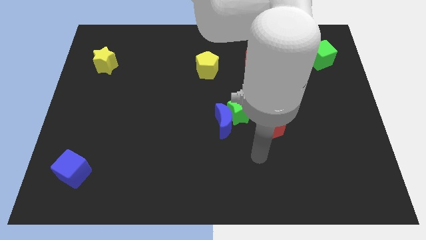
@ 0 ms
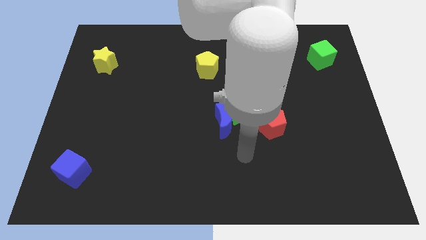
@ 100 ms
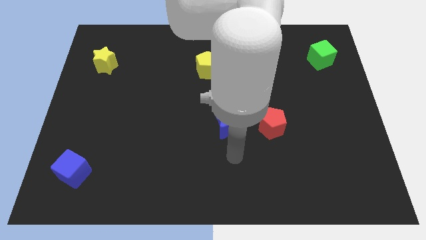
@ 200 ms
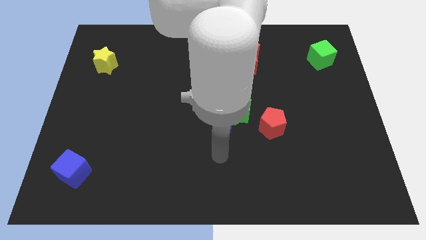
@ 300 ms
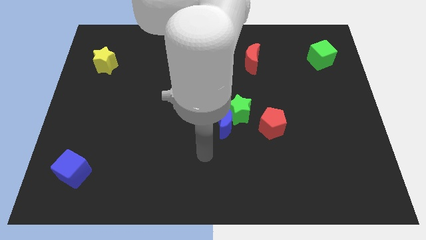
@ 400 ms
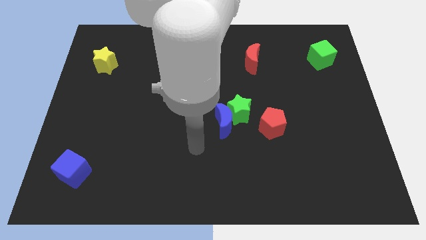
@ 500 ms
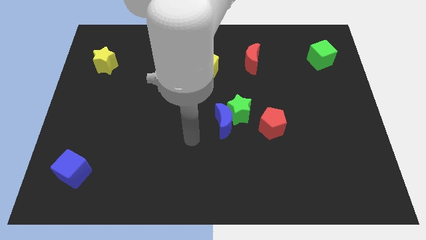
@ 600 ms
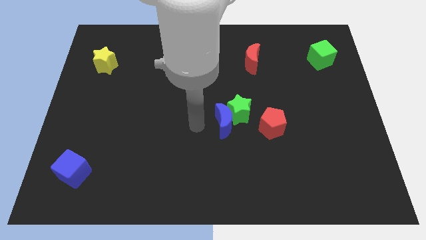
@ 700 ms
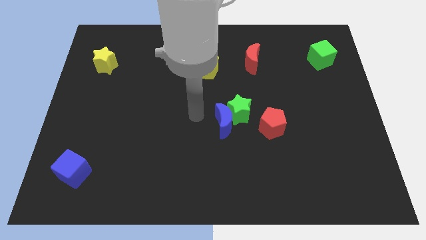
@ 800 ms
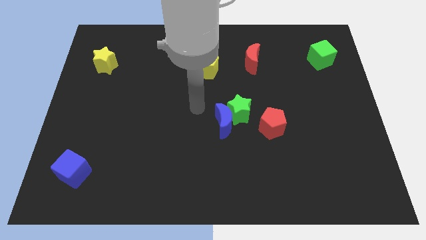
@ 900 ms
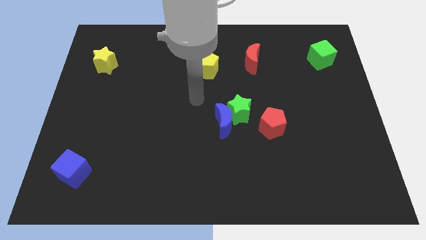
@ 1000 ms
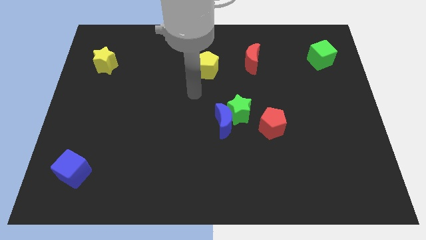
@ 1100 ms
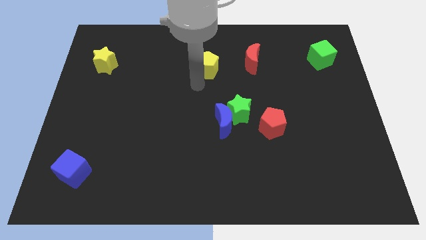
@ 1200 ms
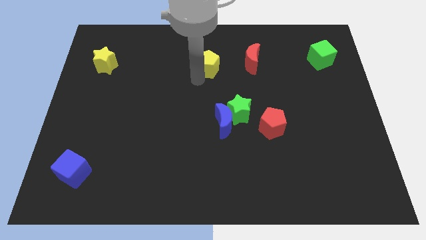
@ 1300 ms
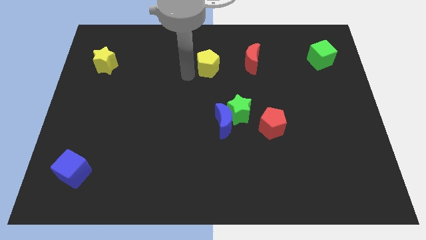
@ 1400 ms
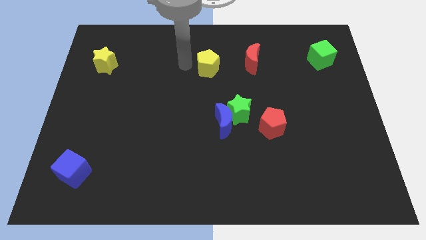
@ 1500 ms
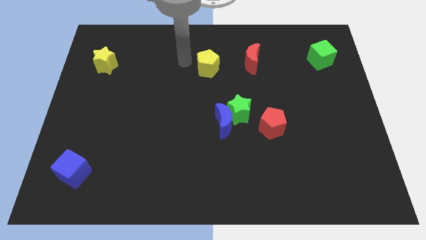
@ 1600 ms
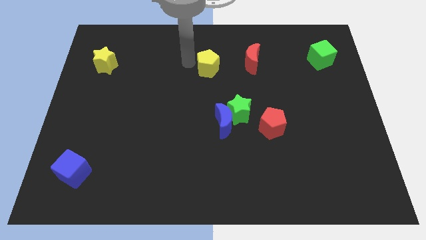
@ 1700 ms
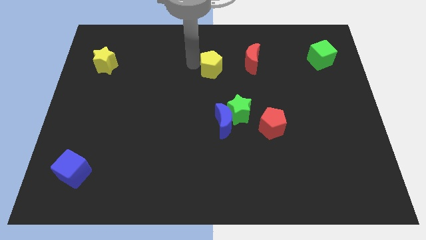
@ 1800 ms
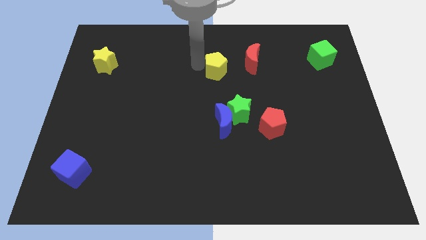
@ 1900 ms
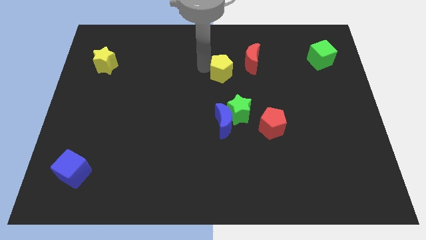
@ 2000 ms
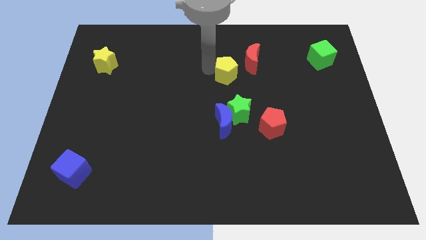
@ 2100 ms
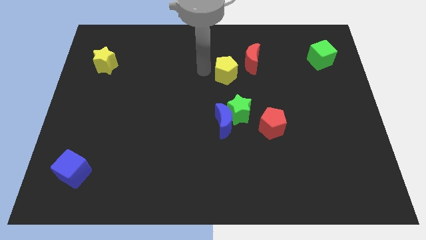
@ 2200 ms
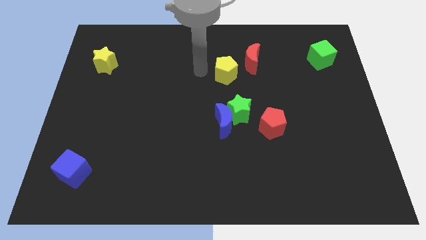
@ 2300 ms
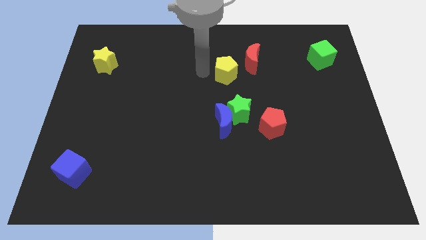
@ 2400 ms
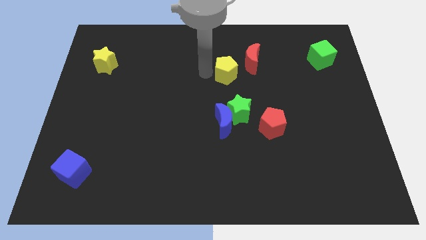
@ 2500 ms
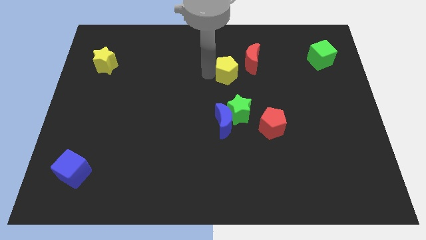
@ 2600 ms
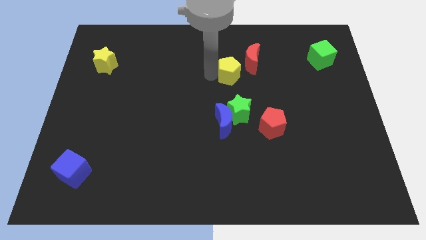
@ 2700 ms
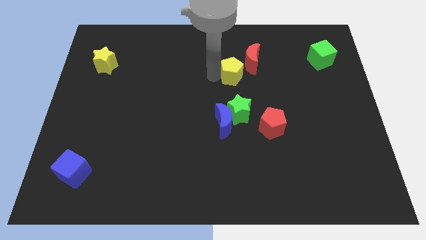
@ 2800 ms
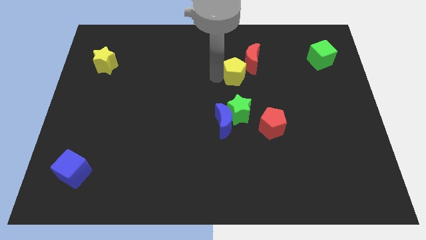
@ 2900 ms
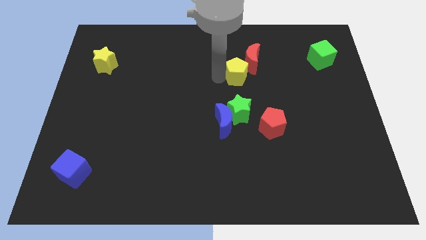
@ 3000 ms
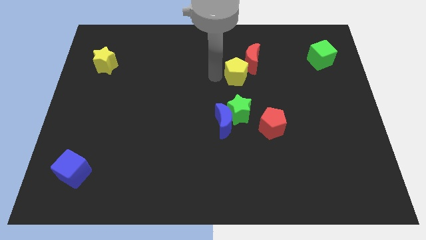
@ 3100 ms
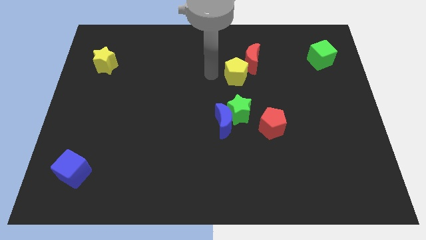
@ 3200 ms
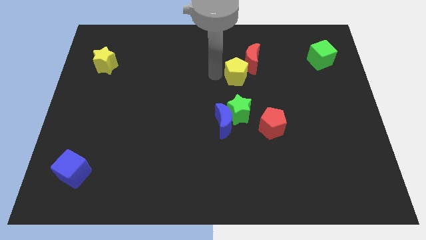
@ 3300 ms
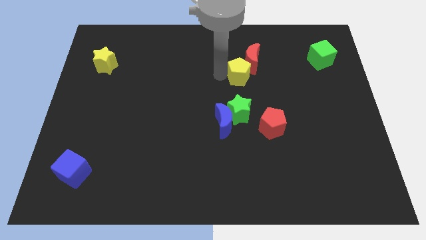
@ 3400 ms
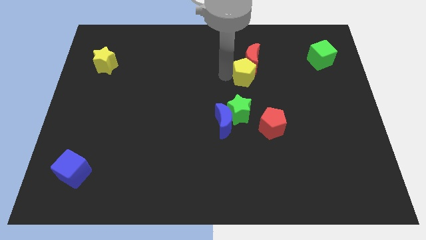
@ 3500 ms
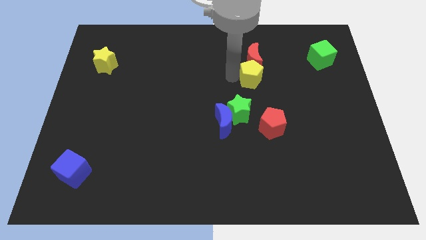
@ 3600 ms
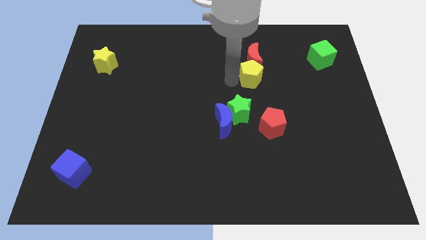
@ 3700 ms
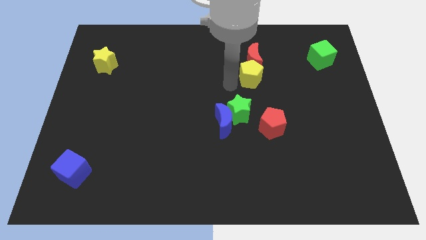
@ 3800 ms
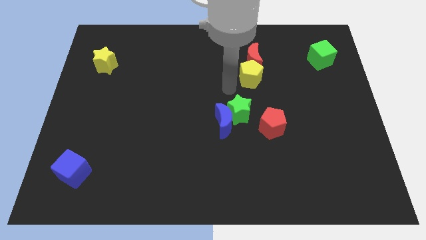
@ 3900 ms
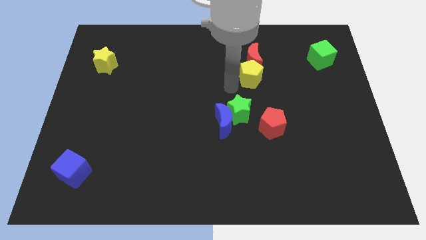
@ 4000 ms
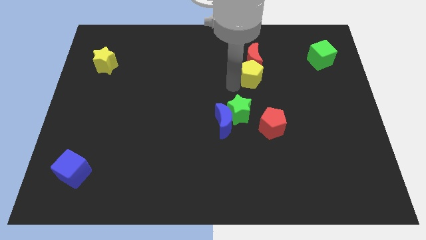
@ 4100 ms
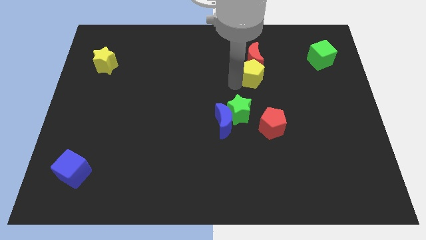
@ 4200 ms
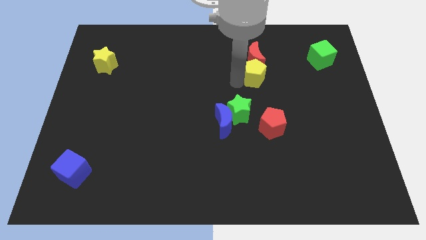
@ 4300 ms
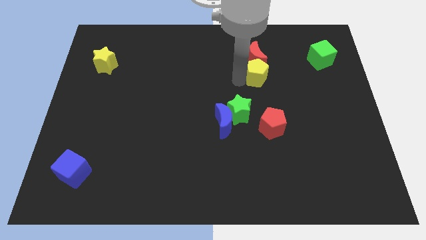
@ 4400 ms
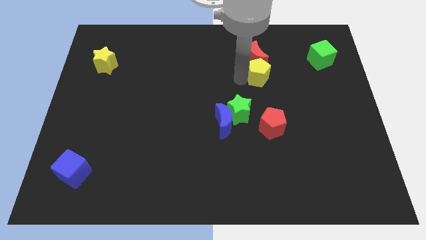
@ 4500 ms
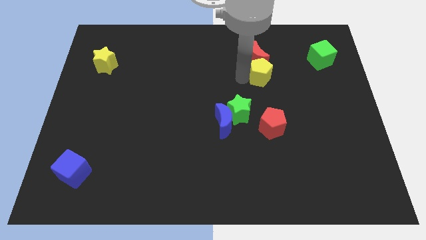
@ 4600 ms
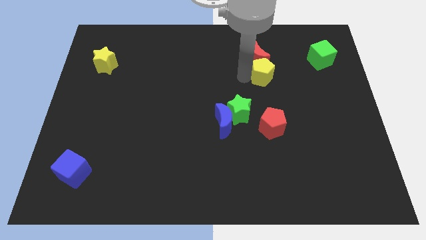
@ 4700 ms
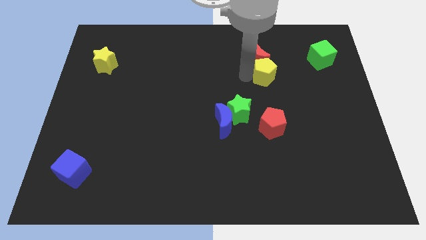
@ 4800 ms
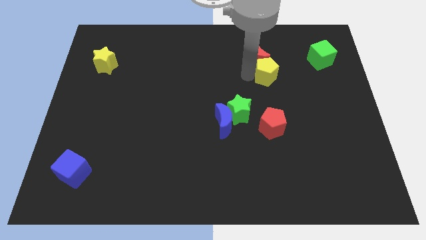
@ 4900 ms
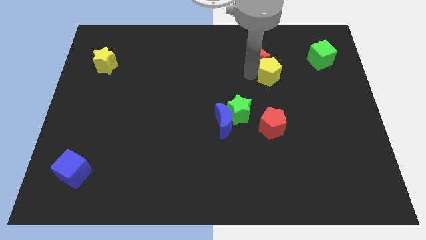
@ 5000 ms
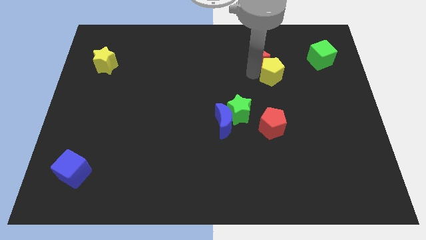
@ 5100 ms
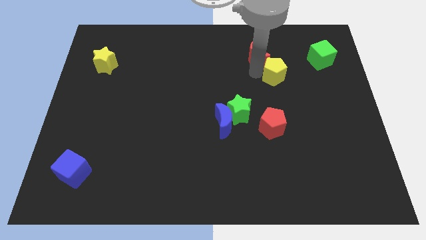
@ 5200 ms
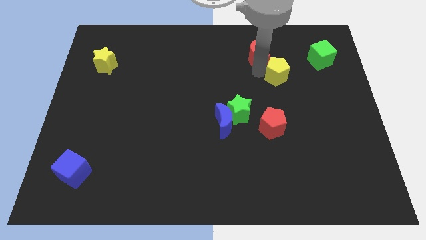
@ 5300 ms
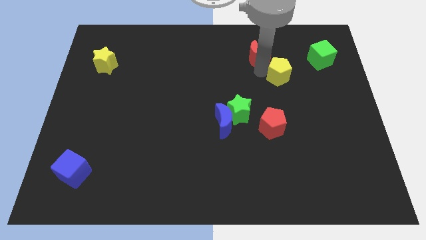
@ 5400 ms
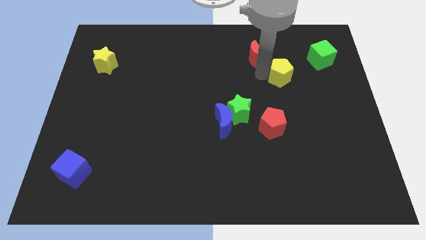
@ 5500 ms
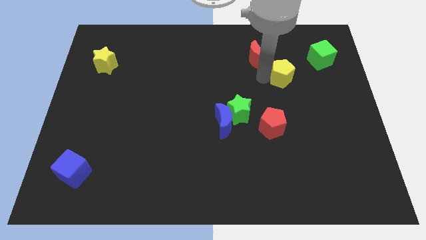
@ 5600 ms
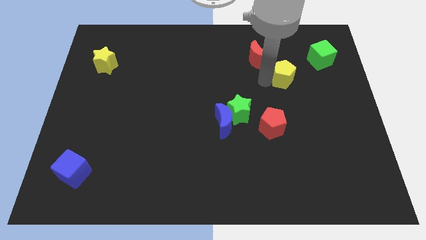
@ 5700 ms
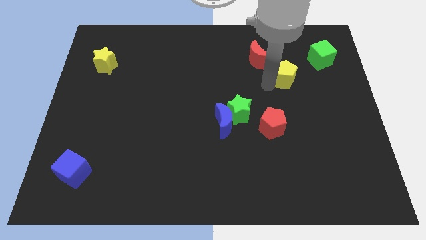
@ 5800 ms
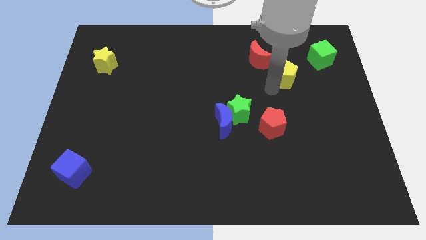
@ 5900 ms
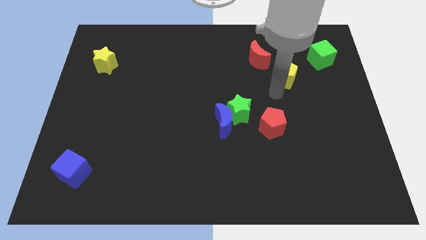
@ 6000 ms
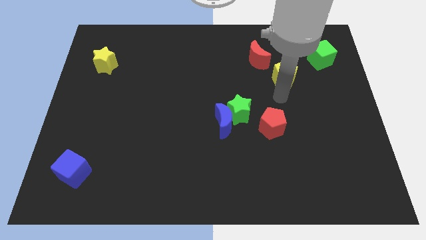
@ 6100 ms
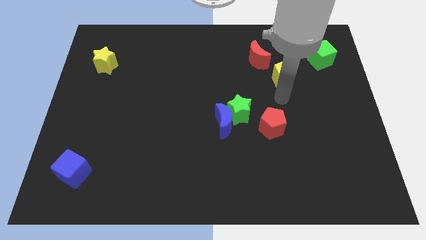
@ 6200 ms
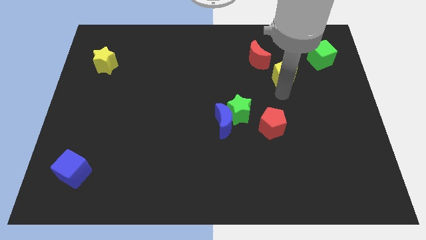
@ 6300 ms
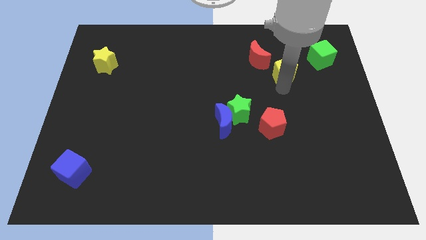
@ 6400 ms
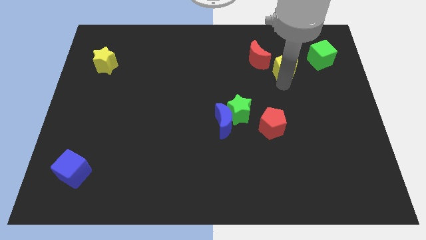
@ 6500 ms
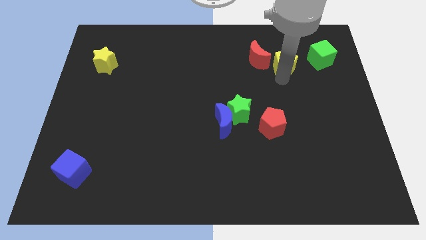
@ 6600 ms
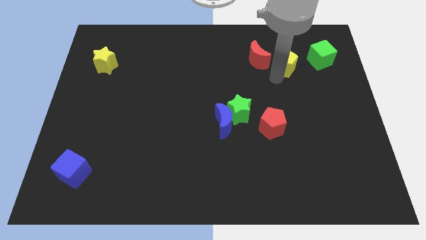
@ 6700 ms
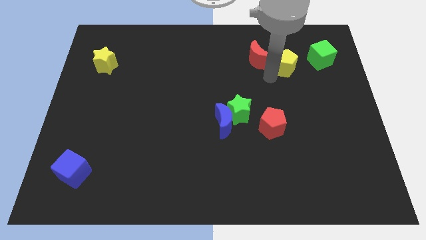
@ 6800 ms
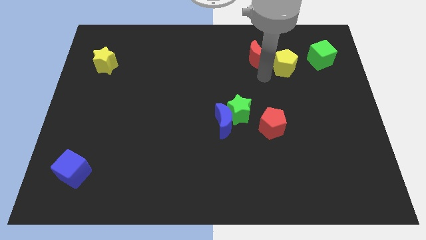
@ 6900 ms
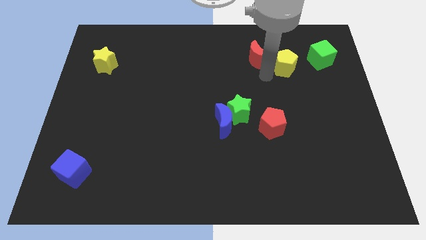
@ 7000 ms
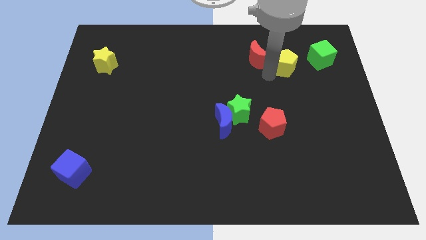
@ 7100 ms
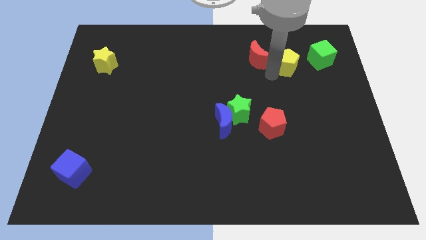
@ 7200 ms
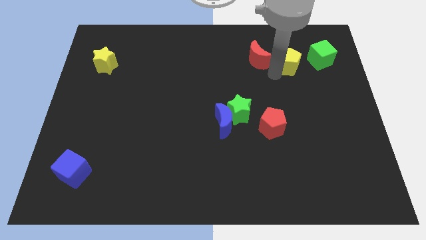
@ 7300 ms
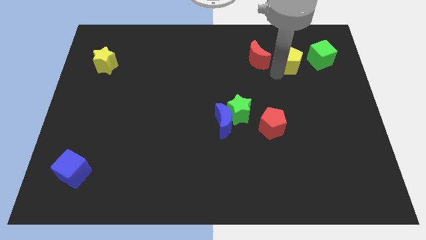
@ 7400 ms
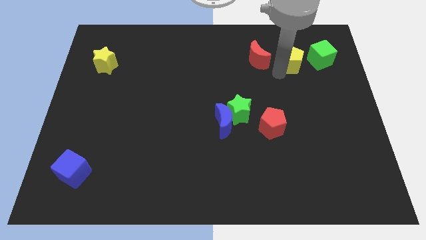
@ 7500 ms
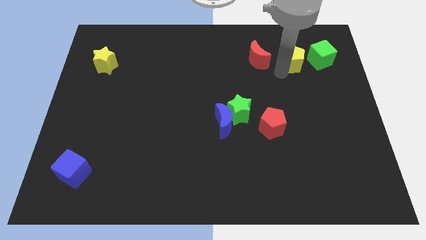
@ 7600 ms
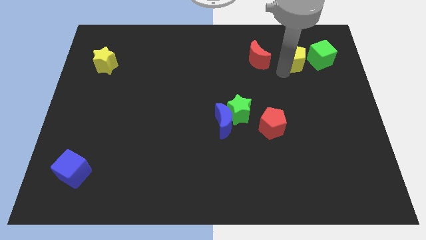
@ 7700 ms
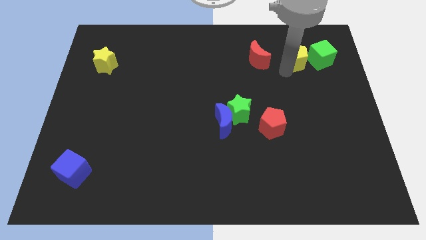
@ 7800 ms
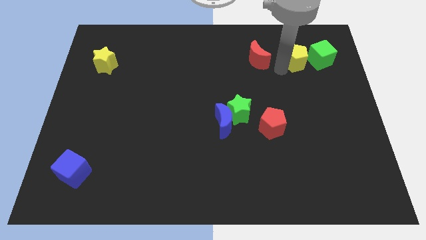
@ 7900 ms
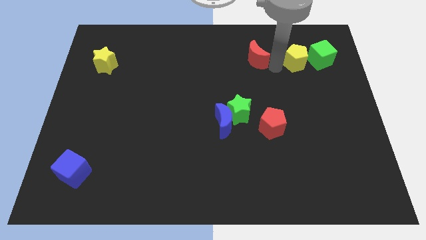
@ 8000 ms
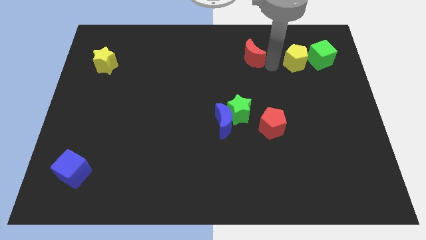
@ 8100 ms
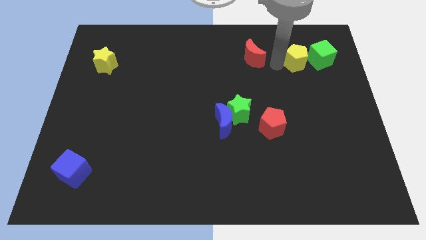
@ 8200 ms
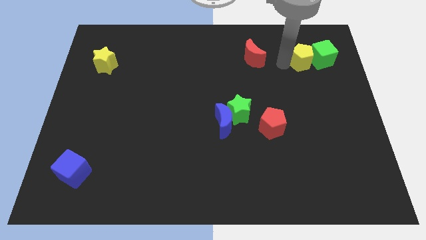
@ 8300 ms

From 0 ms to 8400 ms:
put the yellow pentagon close to the green cube
